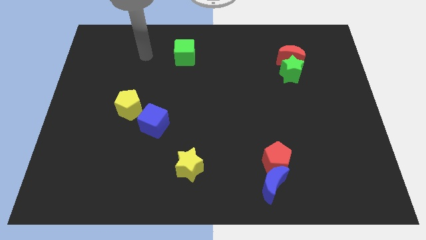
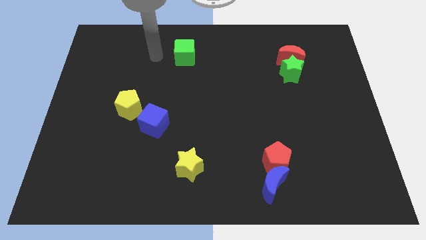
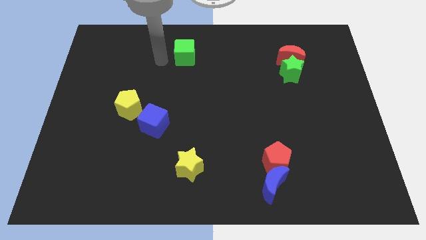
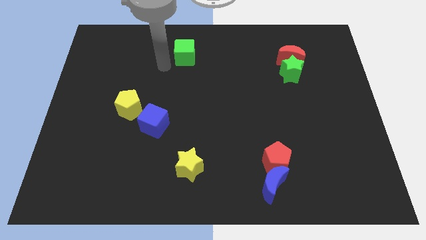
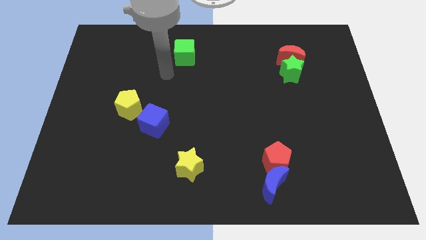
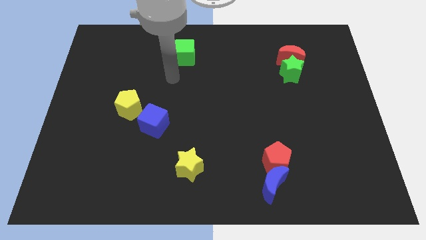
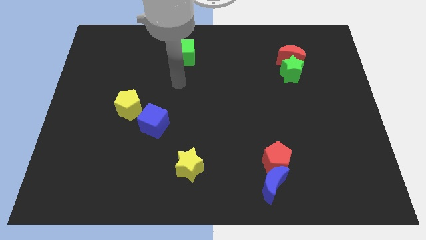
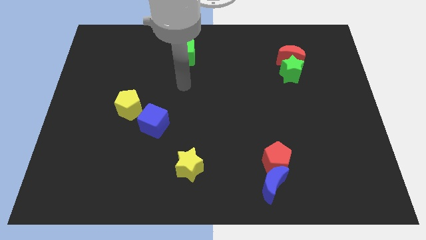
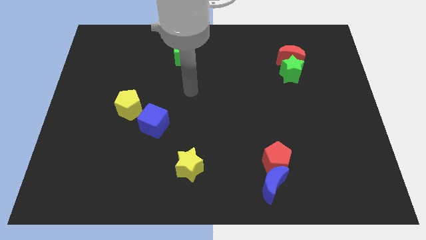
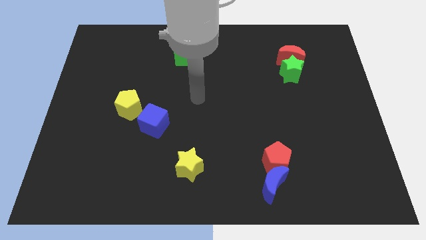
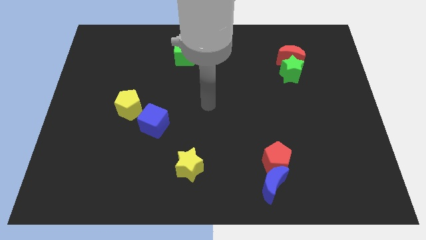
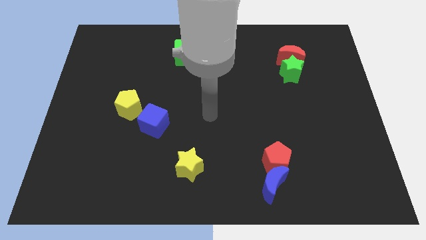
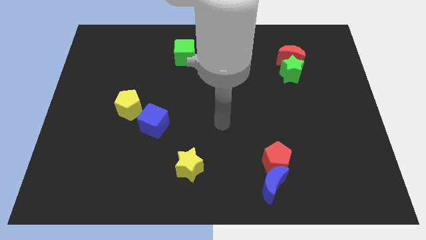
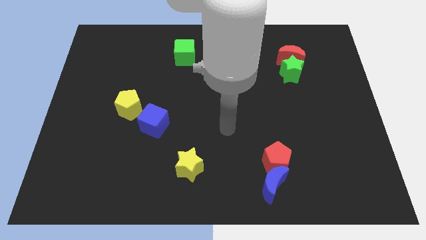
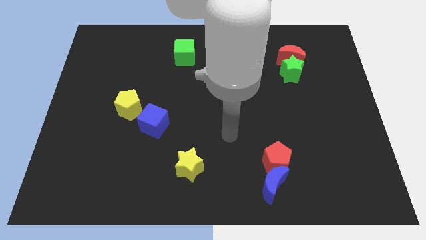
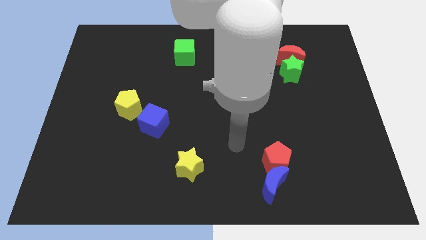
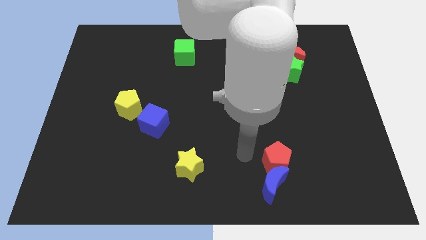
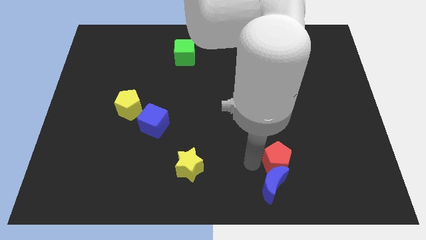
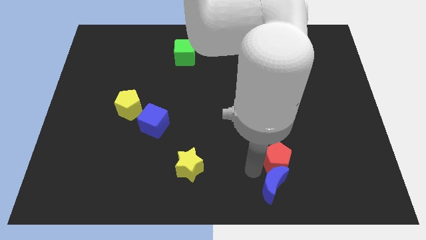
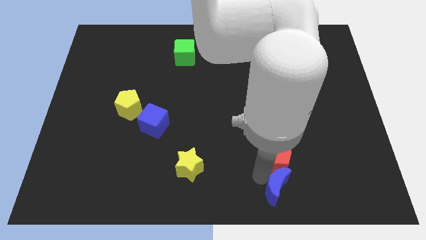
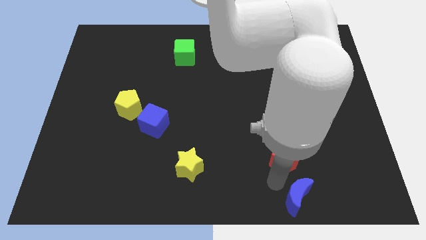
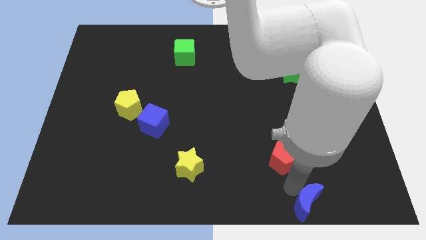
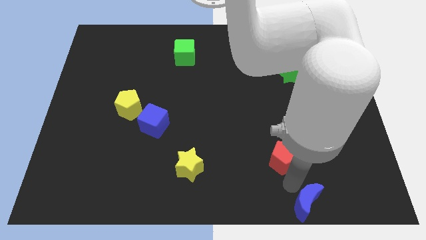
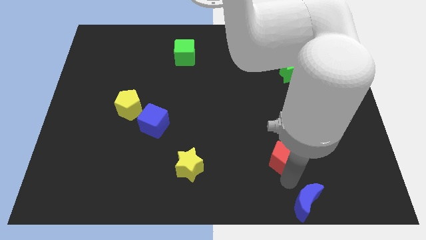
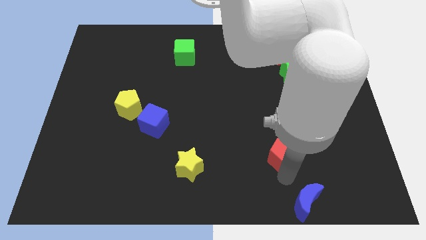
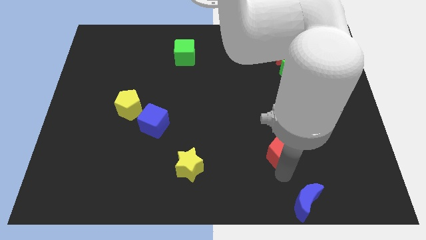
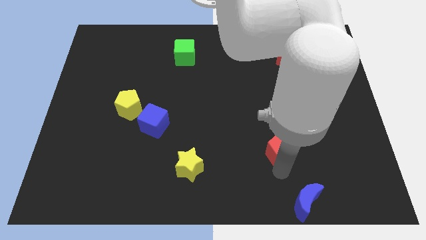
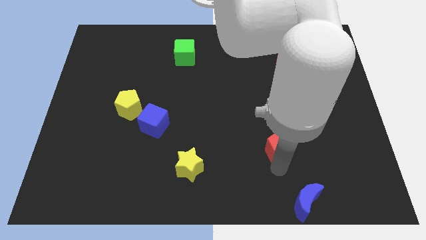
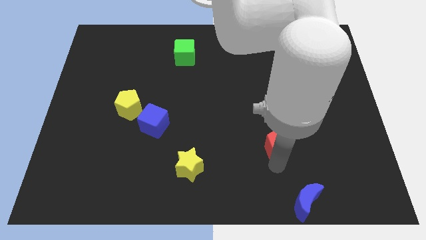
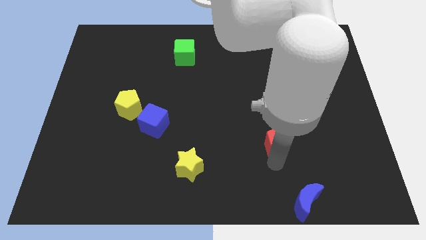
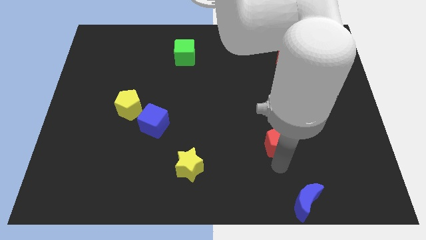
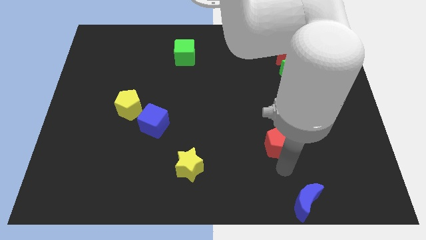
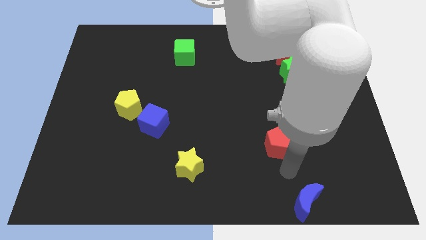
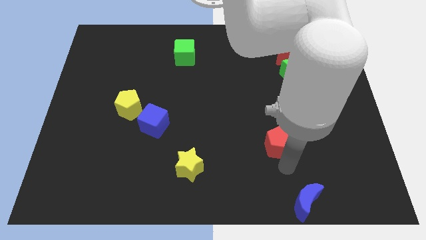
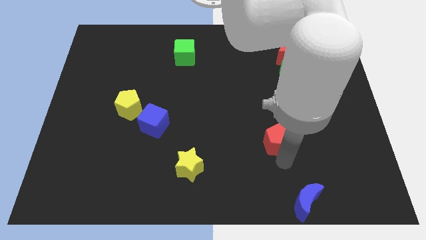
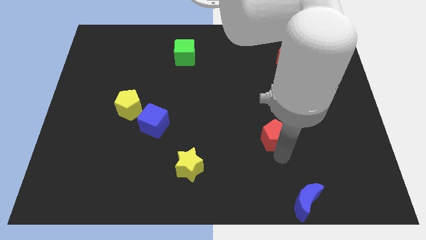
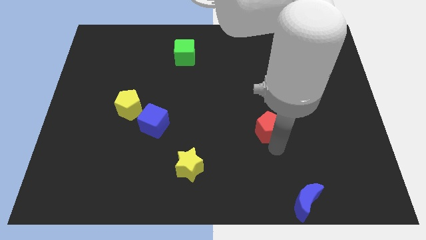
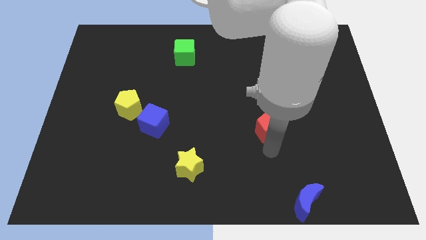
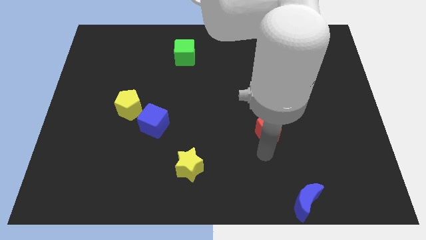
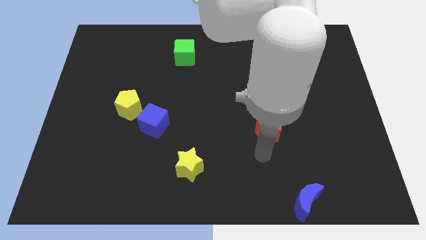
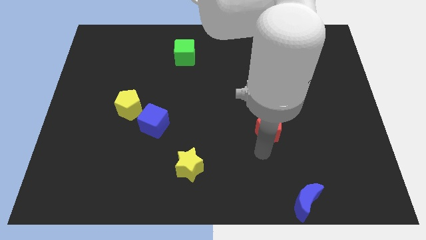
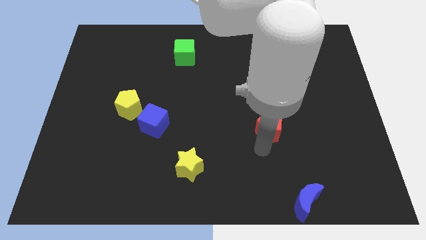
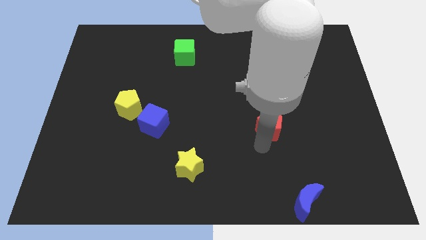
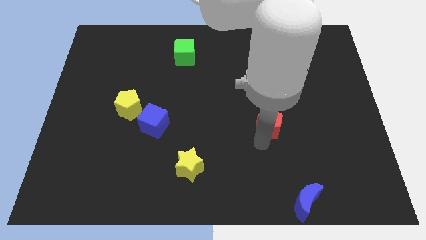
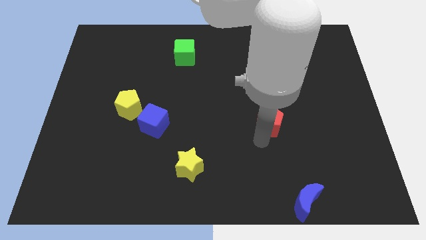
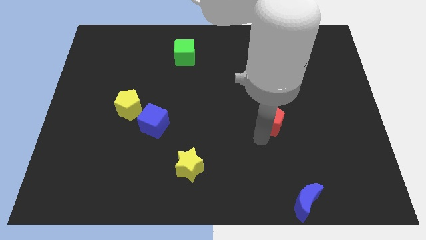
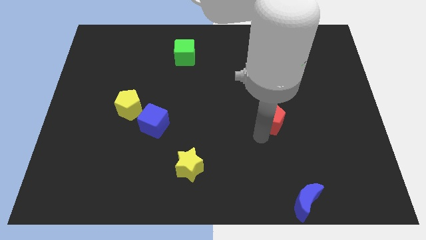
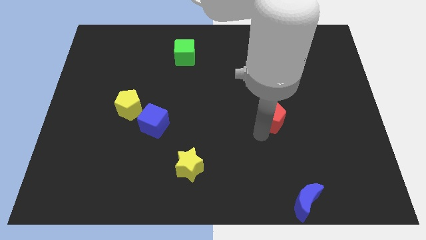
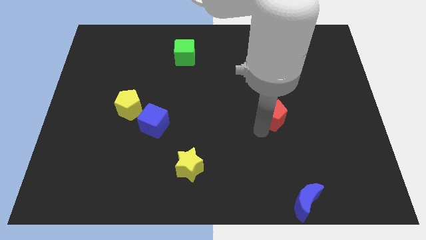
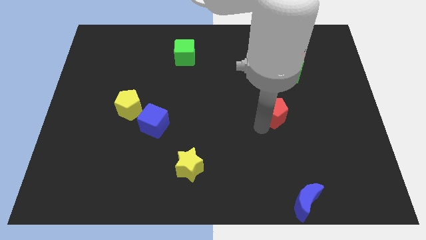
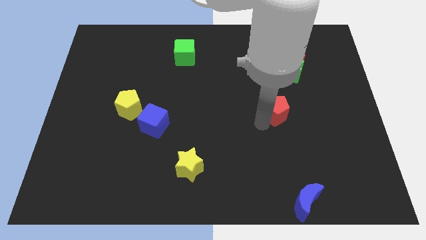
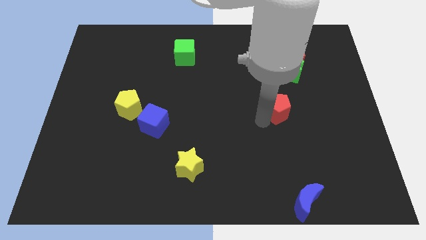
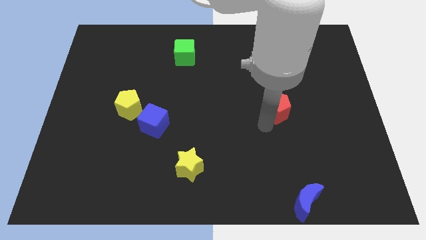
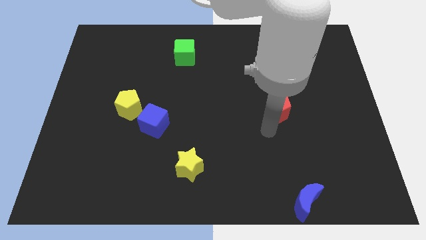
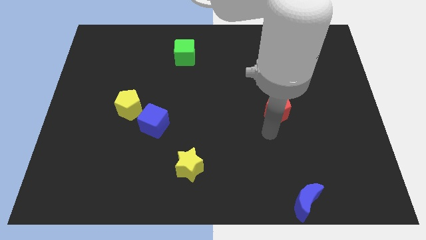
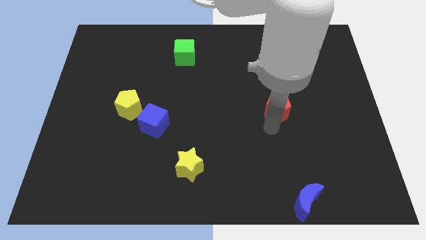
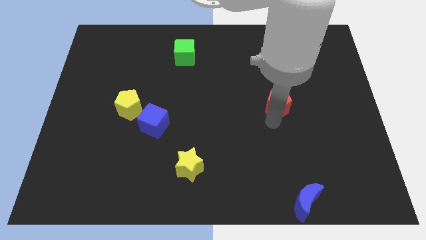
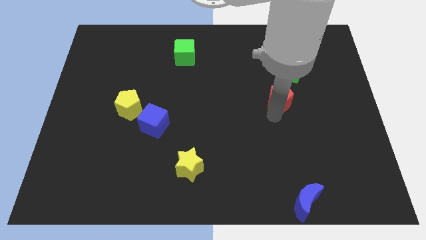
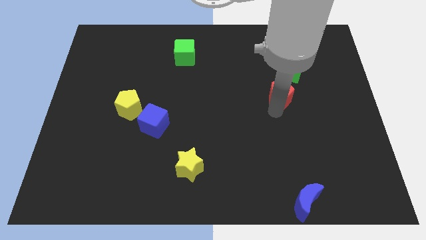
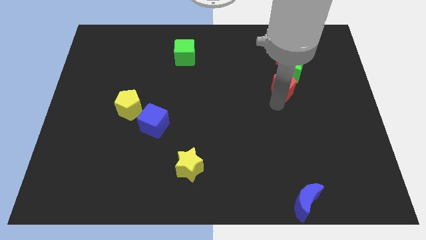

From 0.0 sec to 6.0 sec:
put the red pentagon next to the green star
